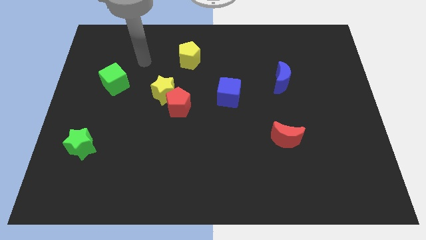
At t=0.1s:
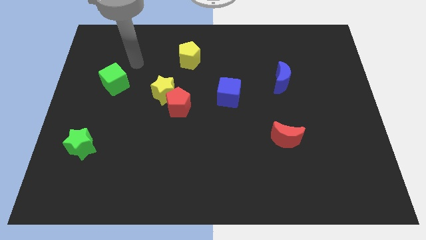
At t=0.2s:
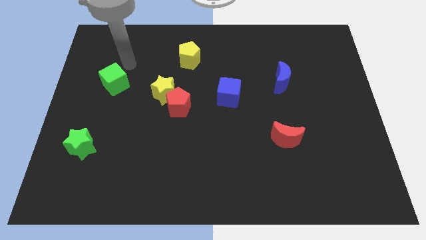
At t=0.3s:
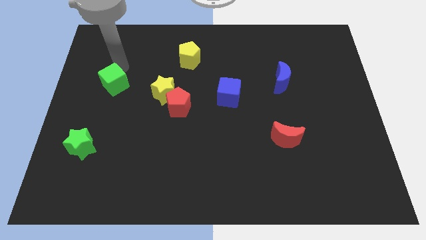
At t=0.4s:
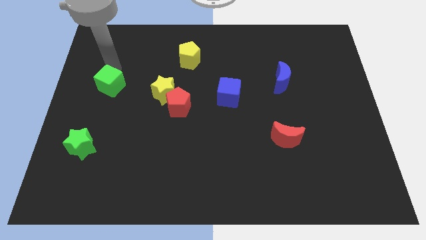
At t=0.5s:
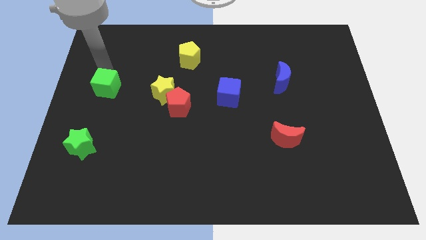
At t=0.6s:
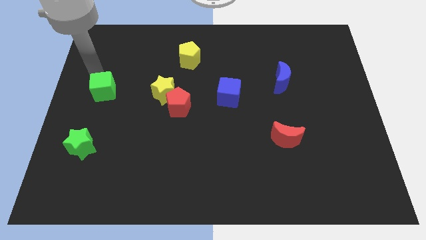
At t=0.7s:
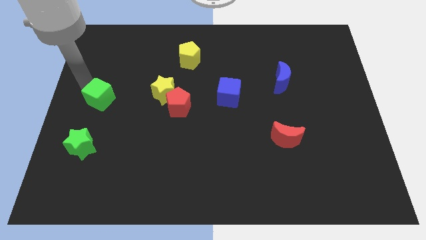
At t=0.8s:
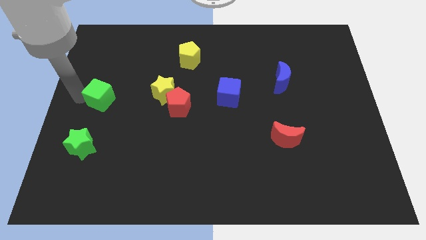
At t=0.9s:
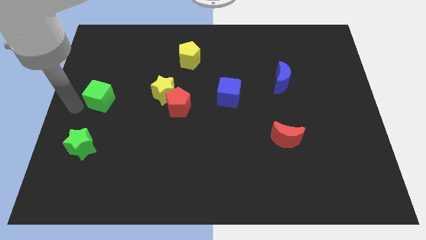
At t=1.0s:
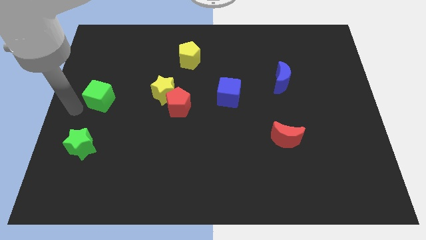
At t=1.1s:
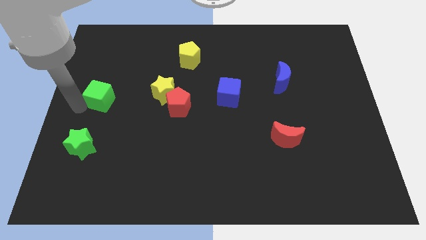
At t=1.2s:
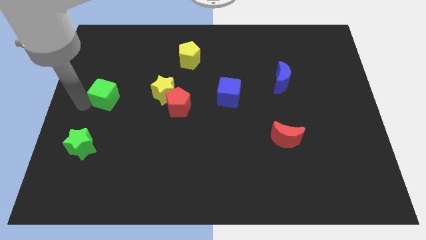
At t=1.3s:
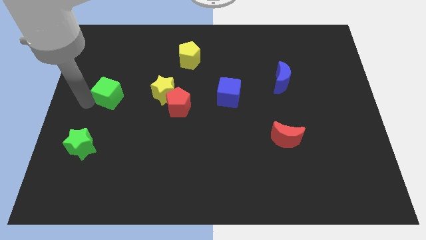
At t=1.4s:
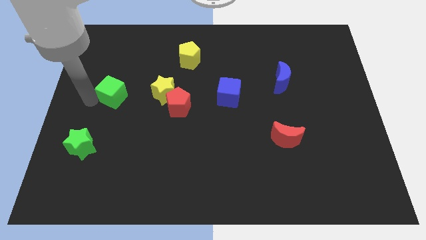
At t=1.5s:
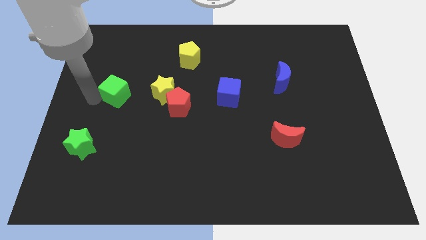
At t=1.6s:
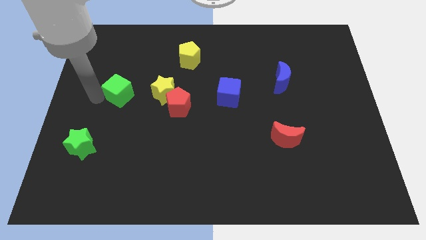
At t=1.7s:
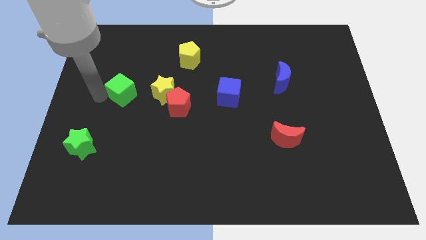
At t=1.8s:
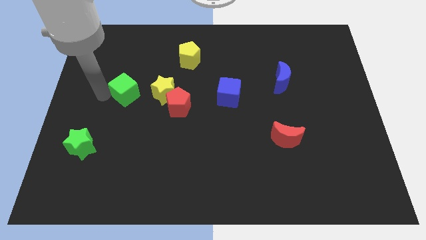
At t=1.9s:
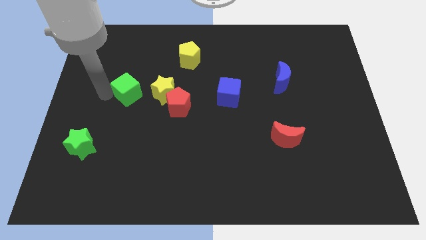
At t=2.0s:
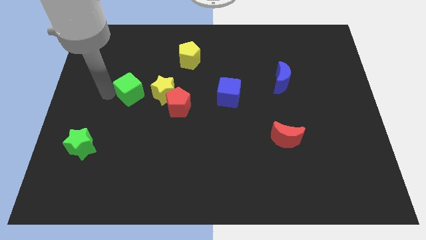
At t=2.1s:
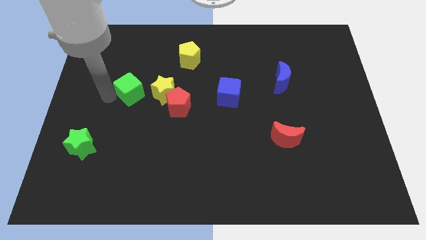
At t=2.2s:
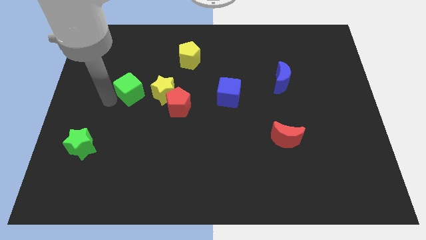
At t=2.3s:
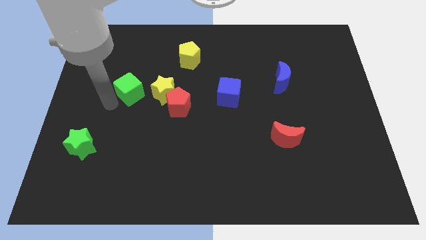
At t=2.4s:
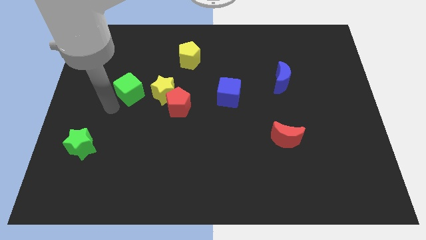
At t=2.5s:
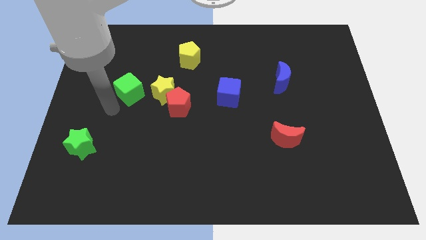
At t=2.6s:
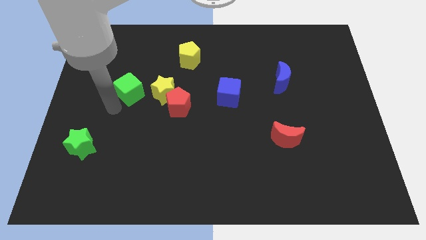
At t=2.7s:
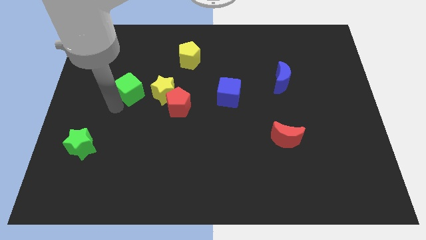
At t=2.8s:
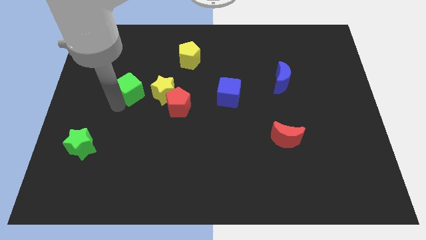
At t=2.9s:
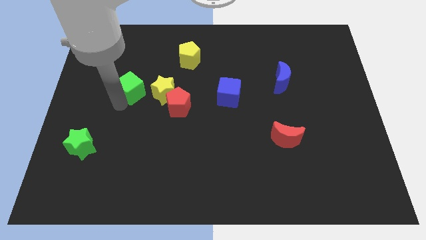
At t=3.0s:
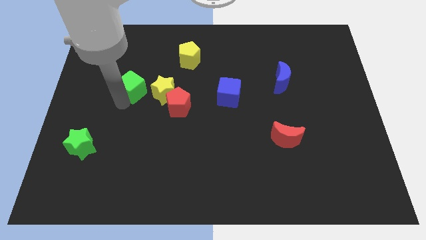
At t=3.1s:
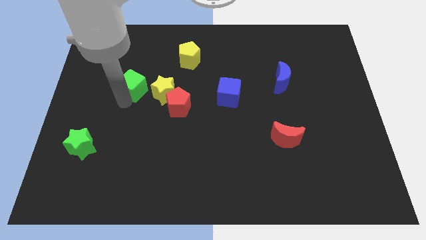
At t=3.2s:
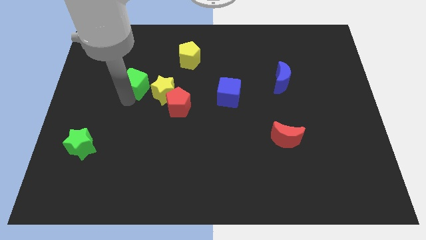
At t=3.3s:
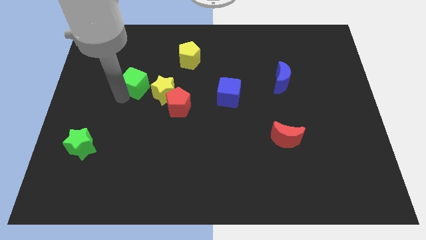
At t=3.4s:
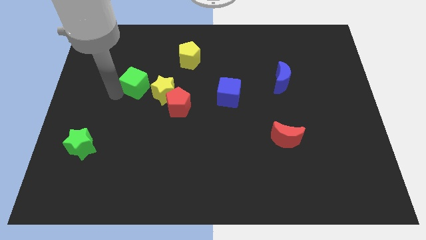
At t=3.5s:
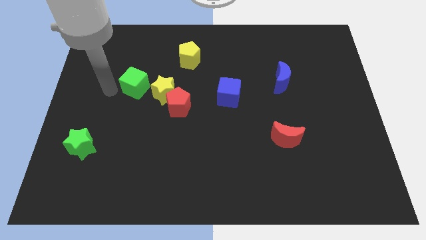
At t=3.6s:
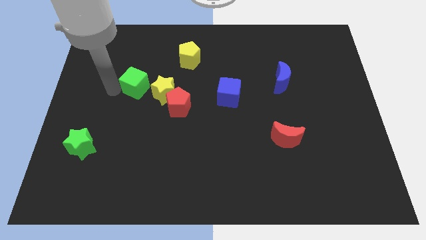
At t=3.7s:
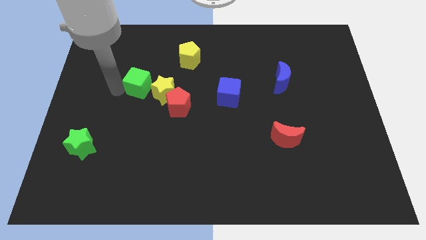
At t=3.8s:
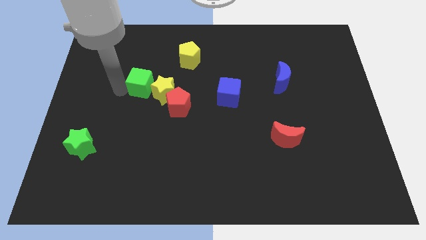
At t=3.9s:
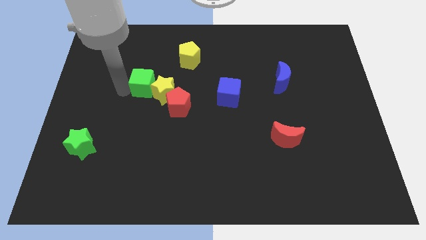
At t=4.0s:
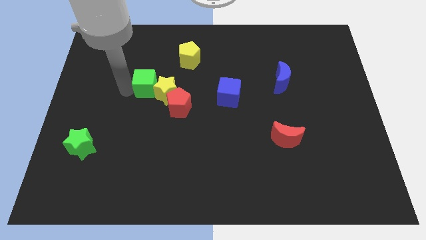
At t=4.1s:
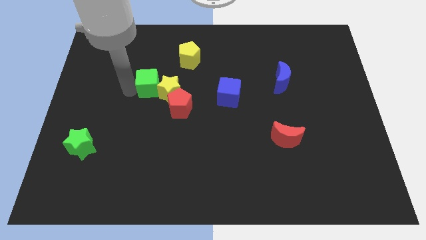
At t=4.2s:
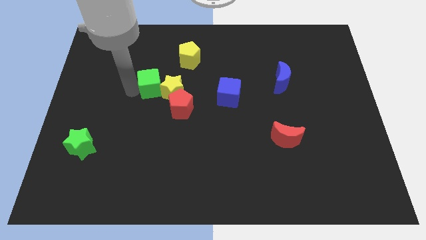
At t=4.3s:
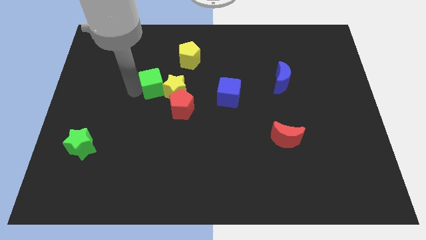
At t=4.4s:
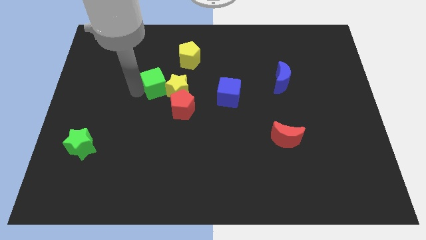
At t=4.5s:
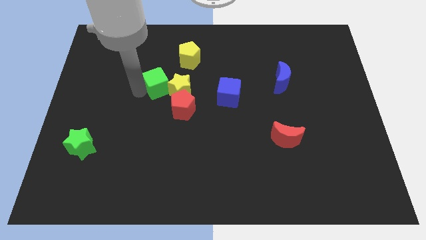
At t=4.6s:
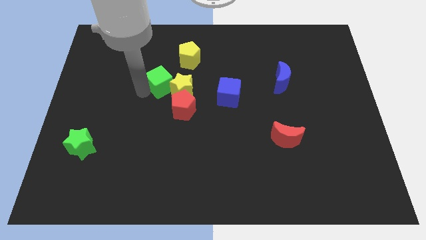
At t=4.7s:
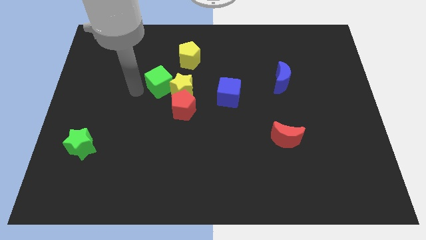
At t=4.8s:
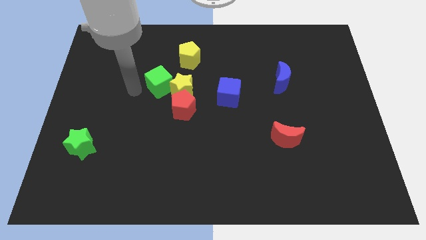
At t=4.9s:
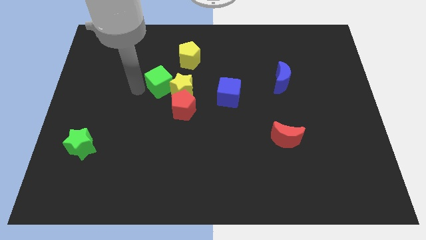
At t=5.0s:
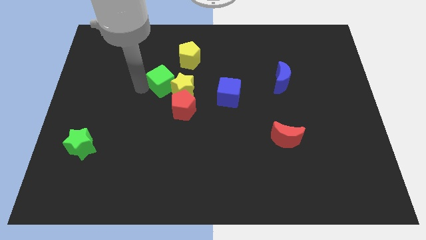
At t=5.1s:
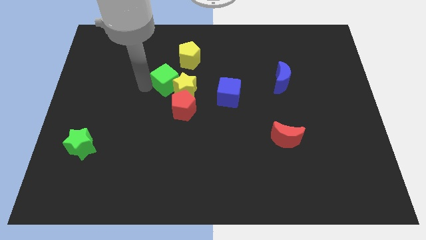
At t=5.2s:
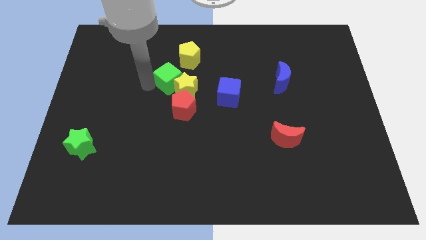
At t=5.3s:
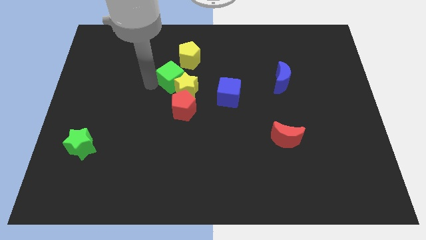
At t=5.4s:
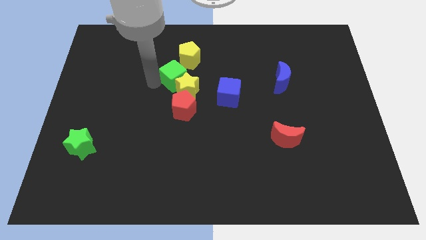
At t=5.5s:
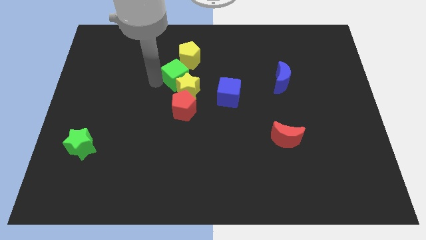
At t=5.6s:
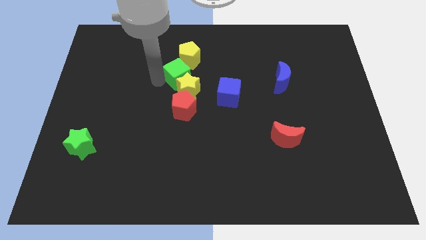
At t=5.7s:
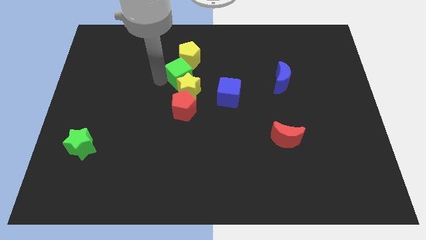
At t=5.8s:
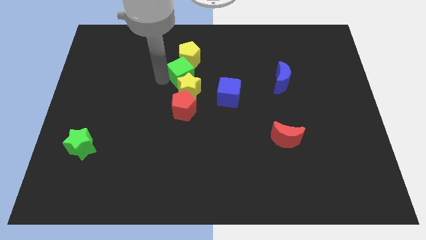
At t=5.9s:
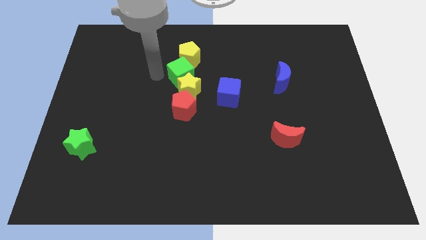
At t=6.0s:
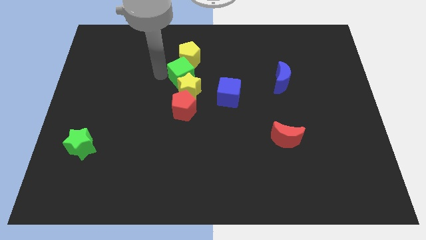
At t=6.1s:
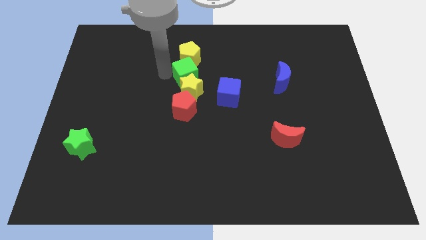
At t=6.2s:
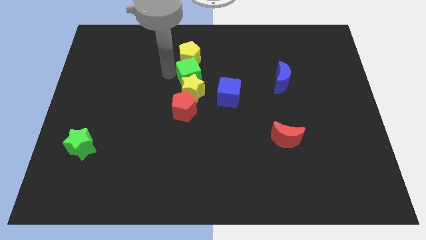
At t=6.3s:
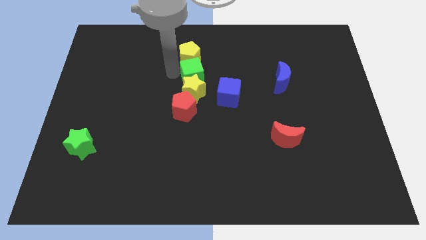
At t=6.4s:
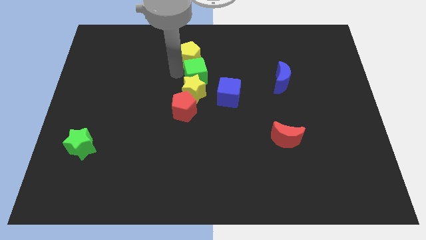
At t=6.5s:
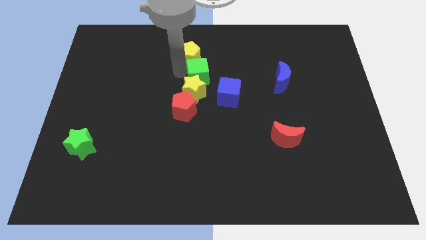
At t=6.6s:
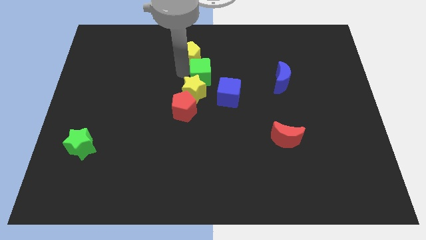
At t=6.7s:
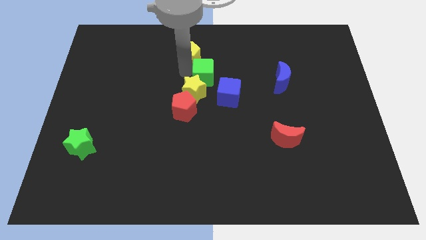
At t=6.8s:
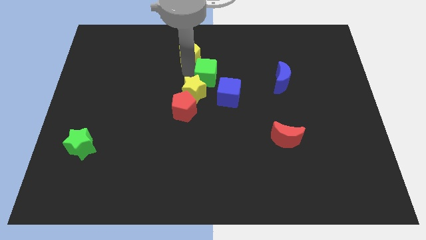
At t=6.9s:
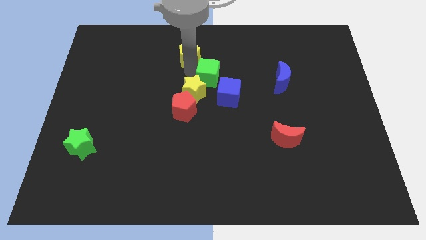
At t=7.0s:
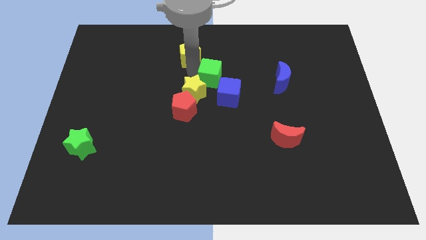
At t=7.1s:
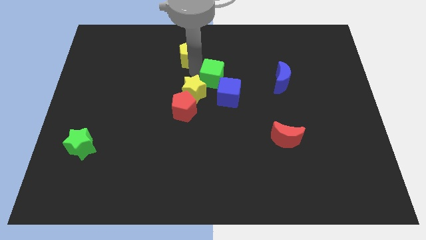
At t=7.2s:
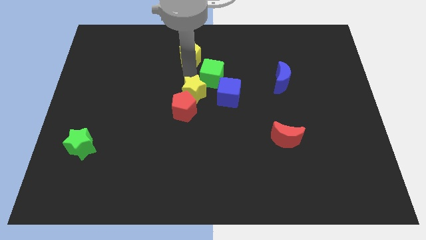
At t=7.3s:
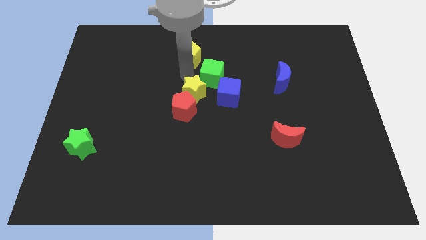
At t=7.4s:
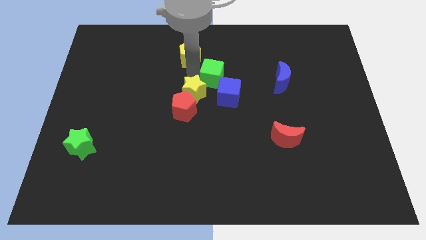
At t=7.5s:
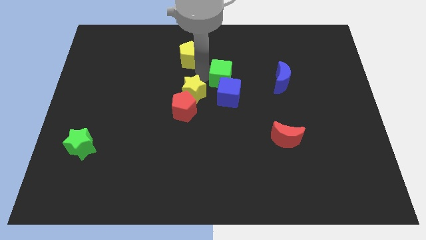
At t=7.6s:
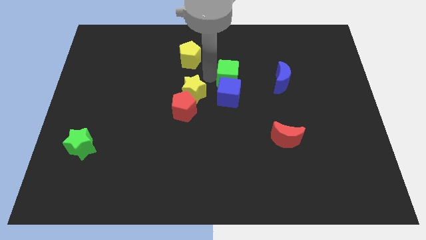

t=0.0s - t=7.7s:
push the green cube to the top right side of the blue cube
